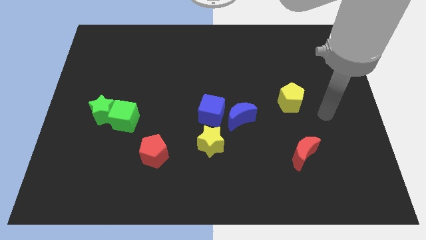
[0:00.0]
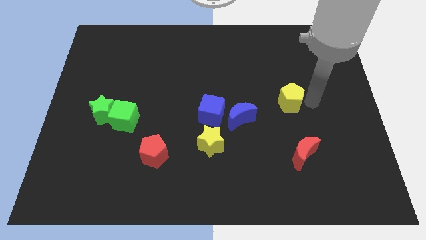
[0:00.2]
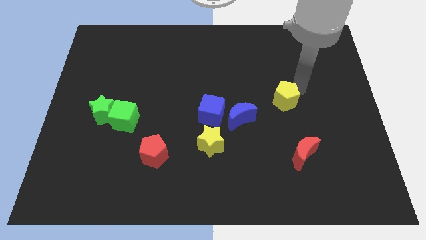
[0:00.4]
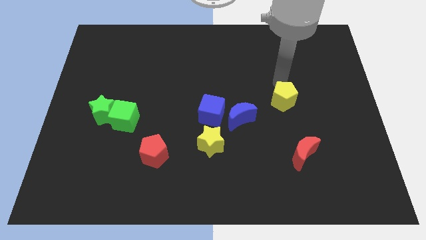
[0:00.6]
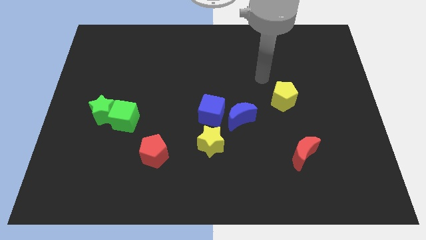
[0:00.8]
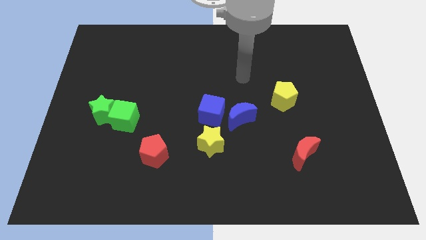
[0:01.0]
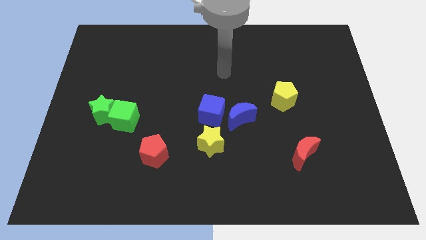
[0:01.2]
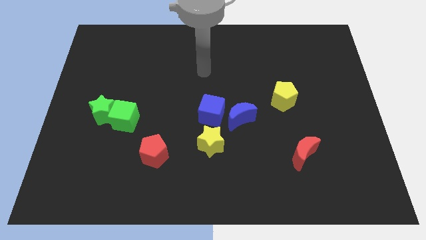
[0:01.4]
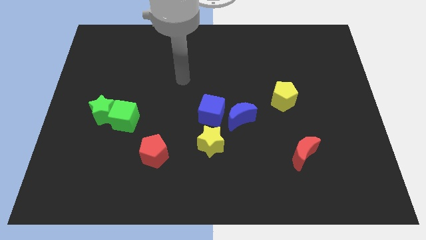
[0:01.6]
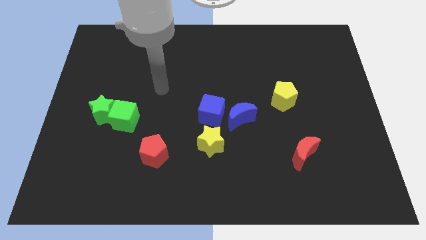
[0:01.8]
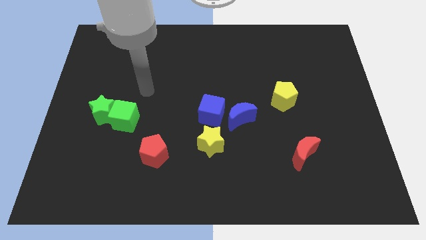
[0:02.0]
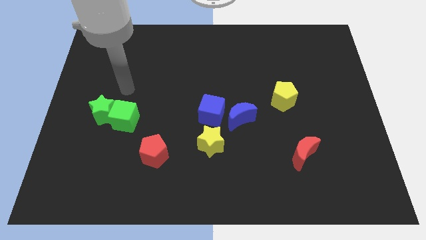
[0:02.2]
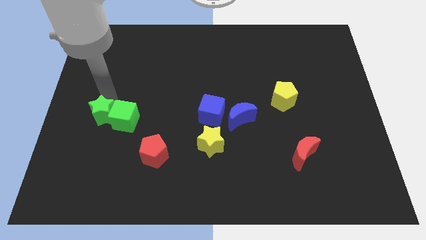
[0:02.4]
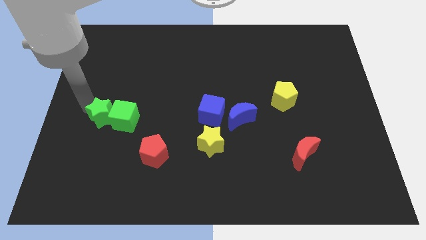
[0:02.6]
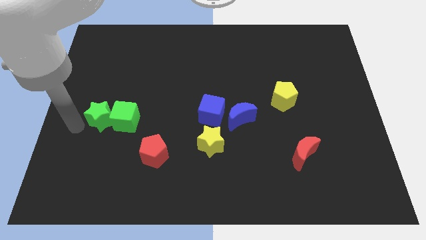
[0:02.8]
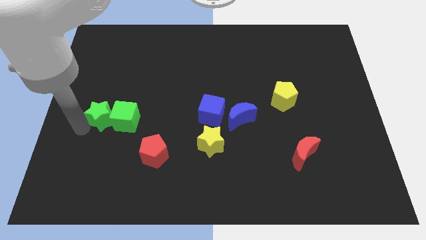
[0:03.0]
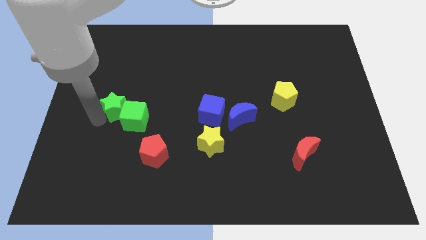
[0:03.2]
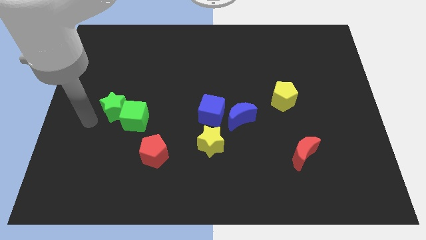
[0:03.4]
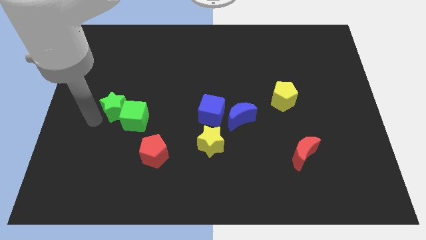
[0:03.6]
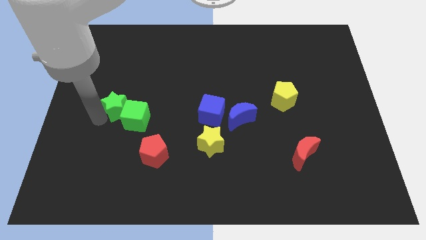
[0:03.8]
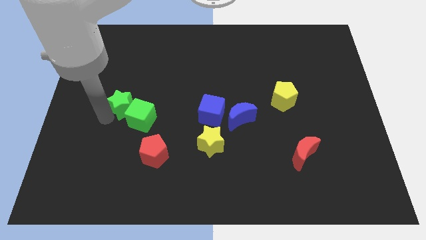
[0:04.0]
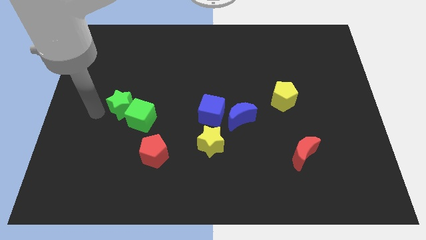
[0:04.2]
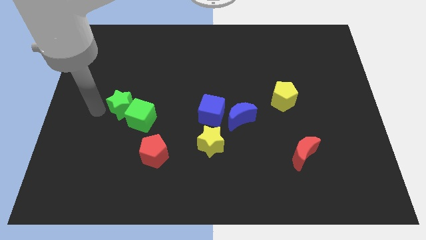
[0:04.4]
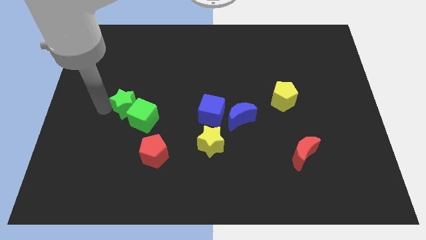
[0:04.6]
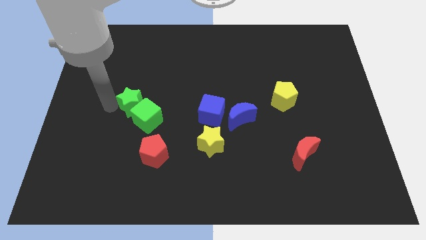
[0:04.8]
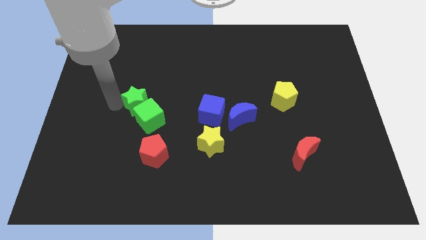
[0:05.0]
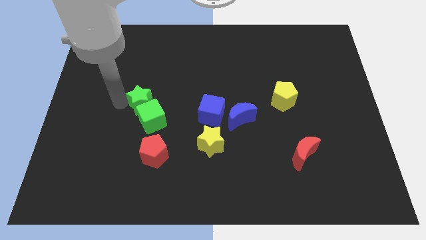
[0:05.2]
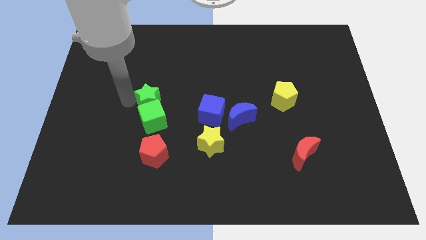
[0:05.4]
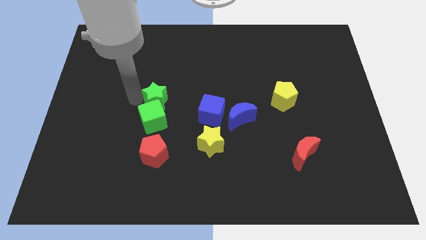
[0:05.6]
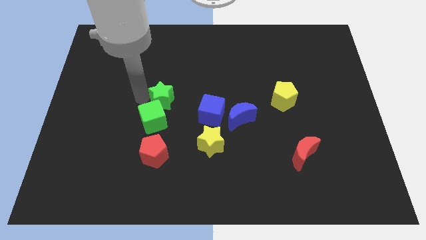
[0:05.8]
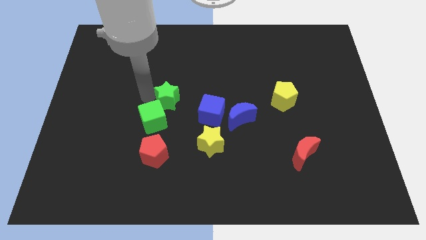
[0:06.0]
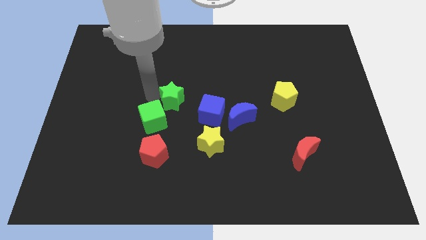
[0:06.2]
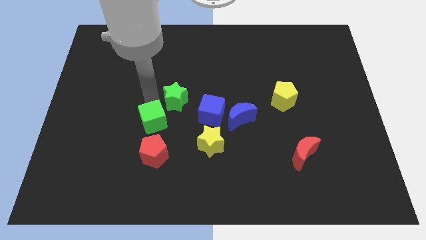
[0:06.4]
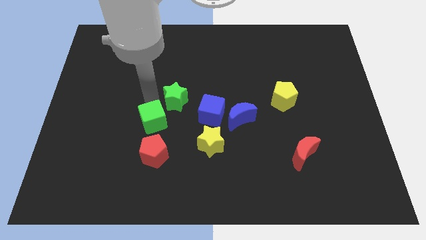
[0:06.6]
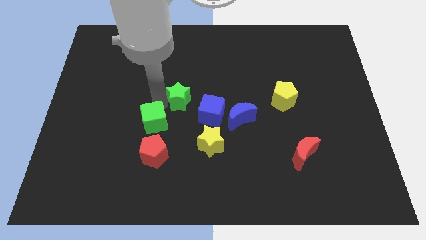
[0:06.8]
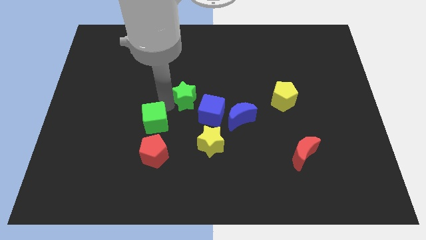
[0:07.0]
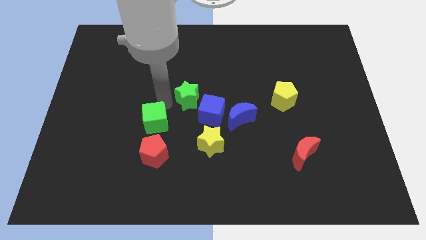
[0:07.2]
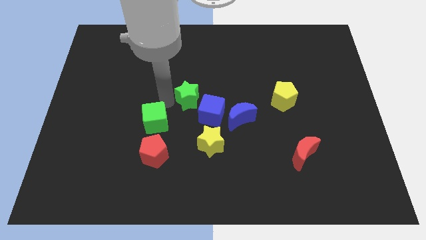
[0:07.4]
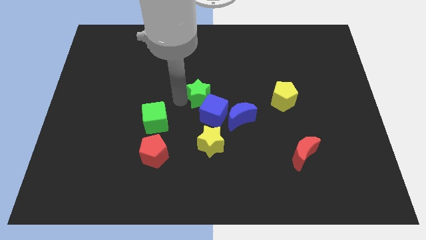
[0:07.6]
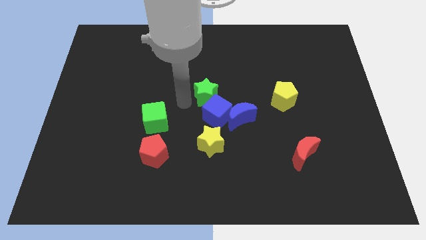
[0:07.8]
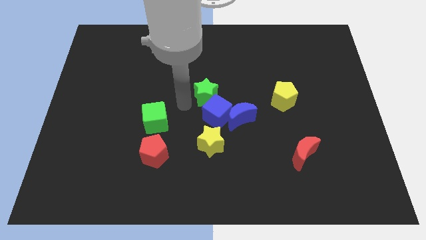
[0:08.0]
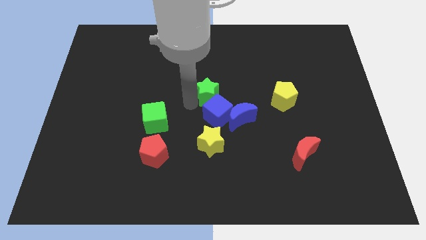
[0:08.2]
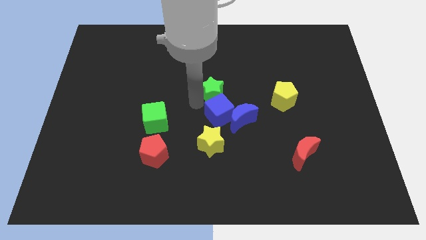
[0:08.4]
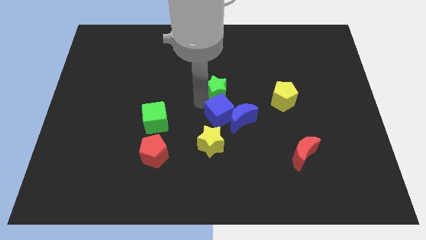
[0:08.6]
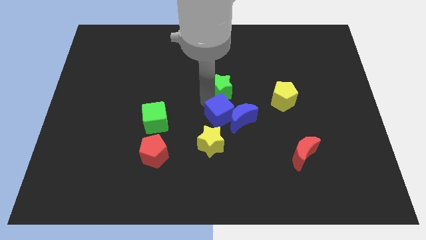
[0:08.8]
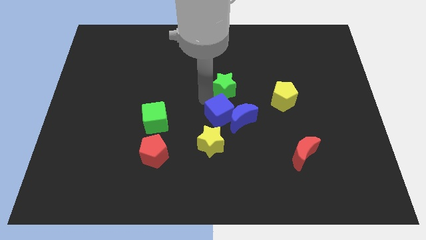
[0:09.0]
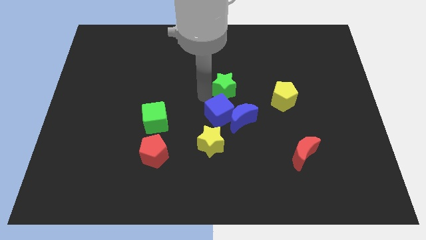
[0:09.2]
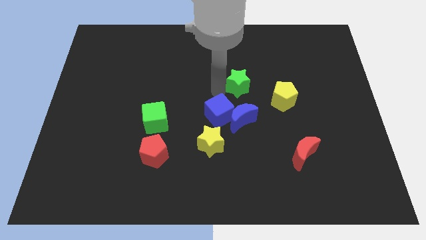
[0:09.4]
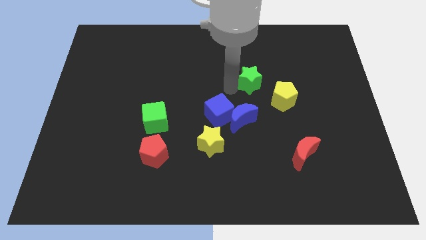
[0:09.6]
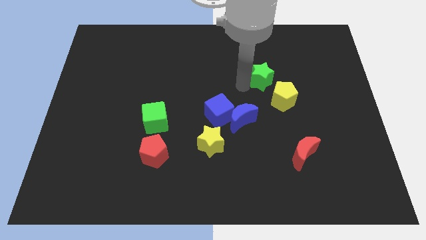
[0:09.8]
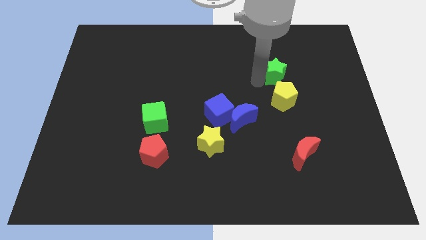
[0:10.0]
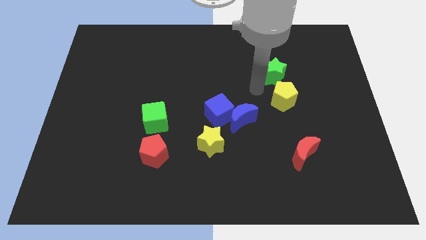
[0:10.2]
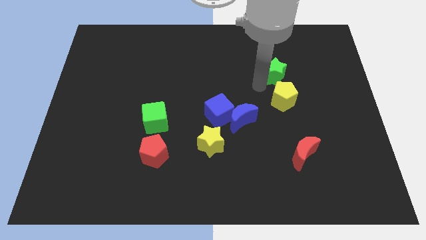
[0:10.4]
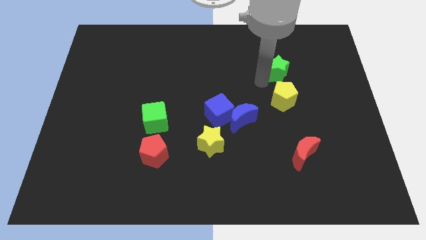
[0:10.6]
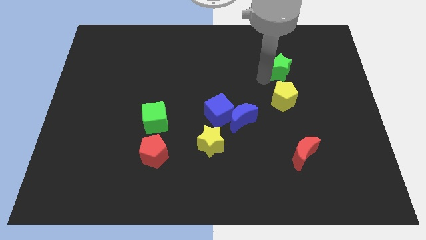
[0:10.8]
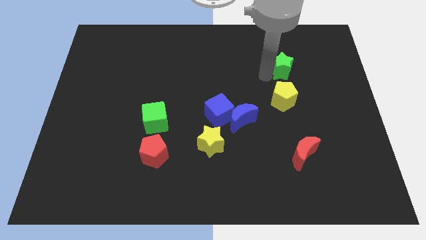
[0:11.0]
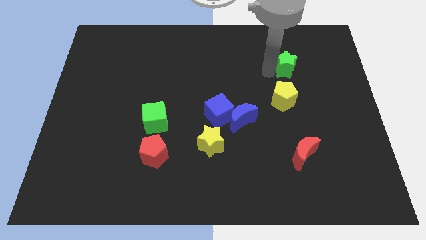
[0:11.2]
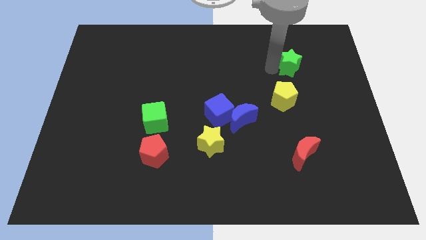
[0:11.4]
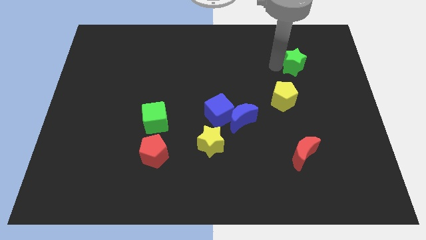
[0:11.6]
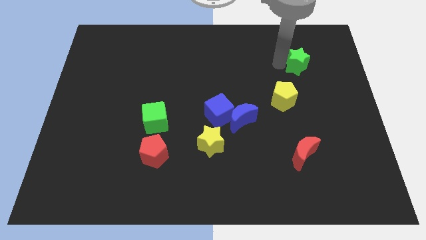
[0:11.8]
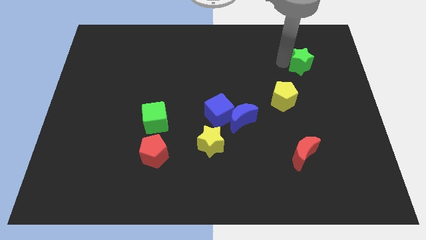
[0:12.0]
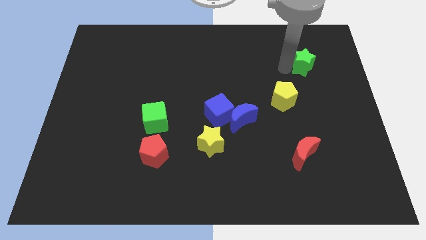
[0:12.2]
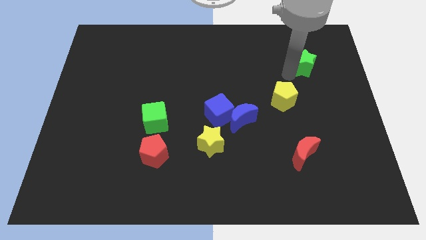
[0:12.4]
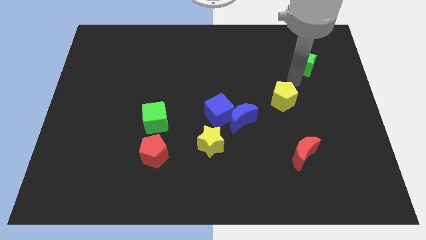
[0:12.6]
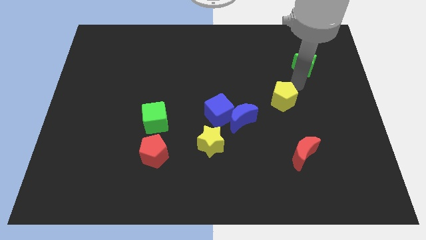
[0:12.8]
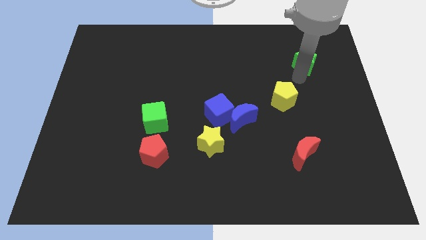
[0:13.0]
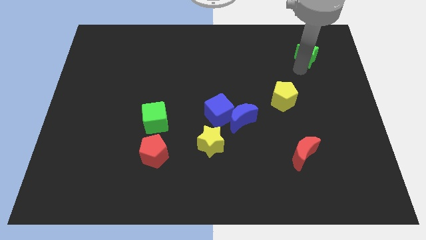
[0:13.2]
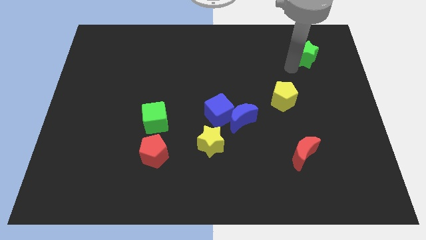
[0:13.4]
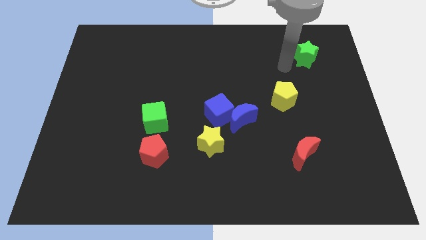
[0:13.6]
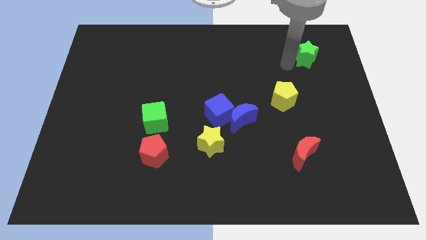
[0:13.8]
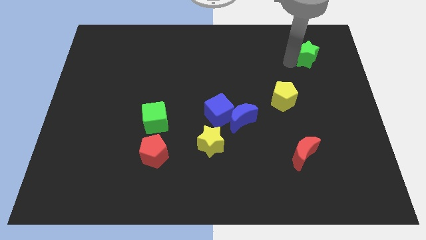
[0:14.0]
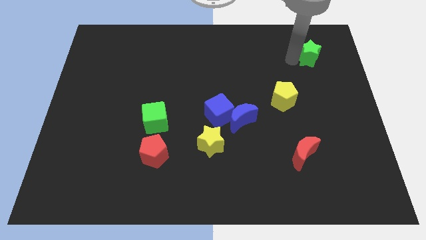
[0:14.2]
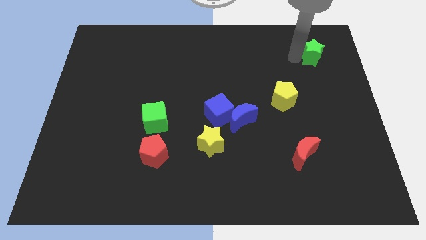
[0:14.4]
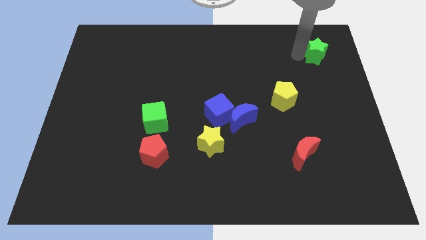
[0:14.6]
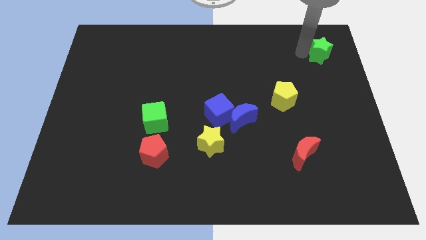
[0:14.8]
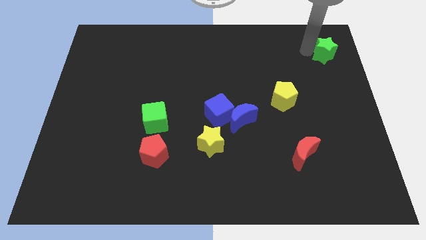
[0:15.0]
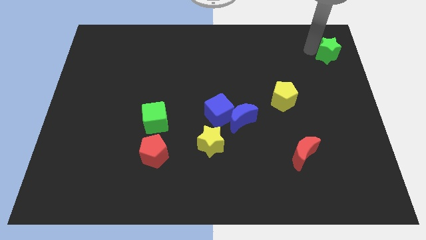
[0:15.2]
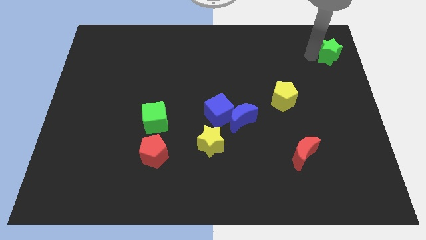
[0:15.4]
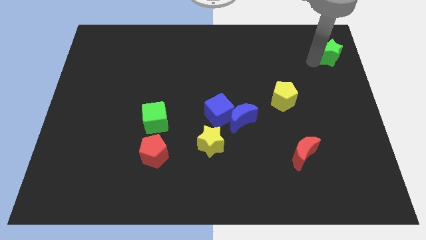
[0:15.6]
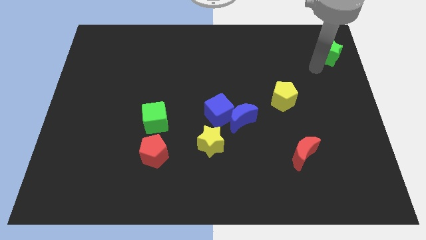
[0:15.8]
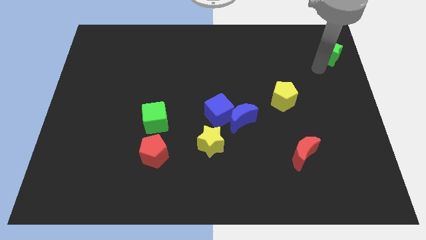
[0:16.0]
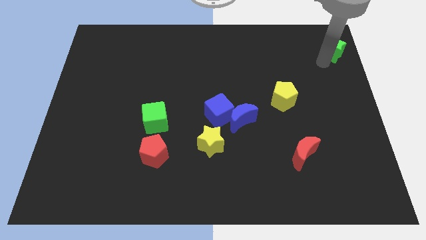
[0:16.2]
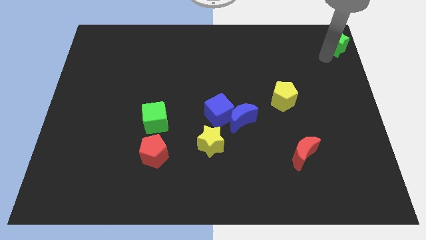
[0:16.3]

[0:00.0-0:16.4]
slide the green star to the top right of the board
